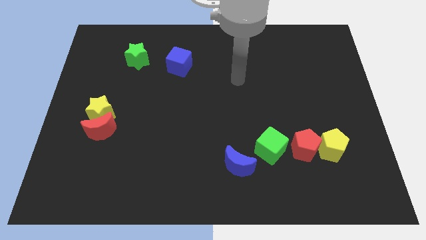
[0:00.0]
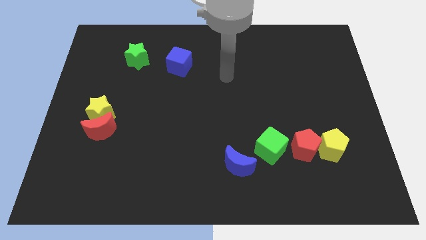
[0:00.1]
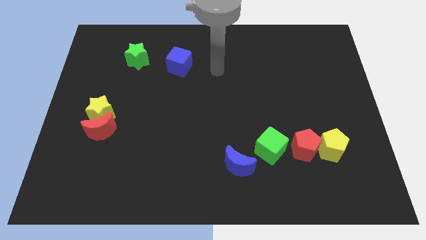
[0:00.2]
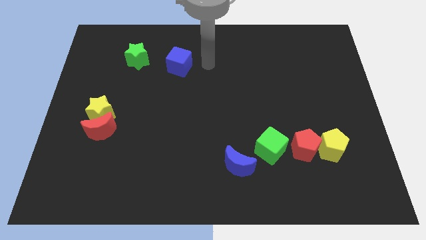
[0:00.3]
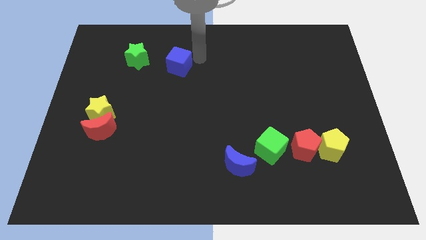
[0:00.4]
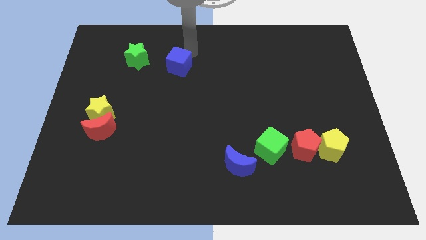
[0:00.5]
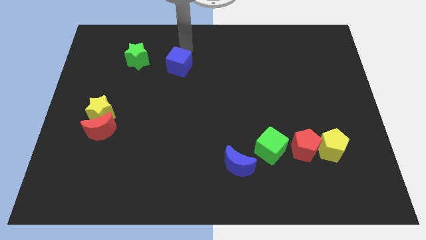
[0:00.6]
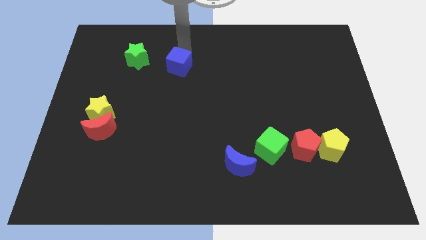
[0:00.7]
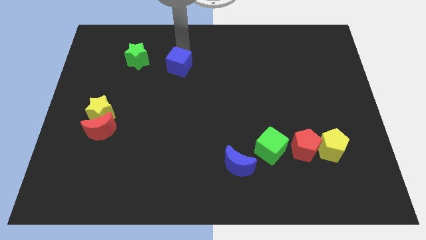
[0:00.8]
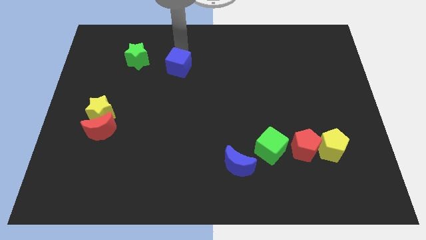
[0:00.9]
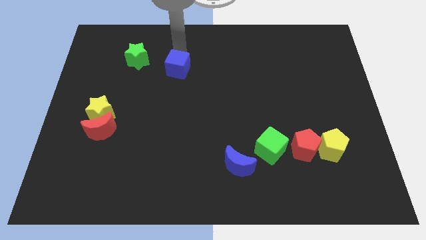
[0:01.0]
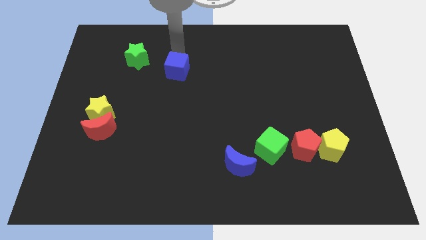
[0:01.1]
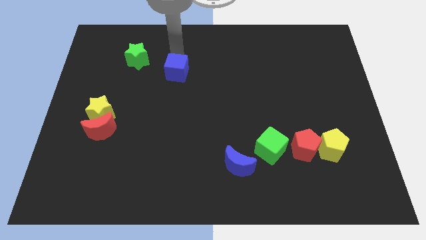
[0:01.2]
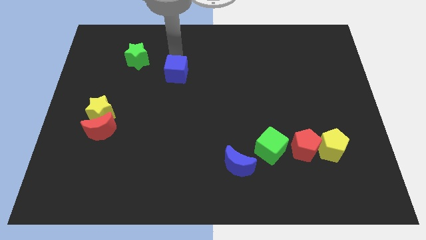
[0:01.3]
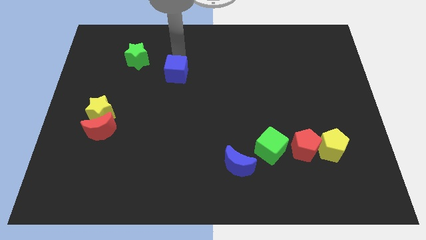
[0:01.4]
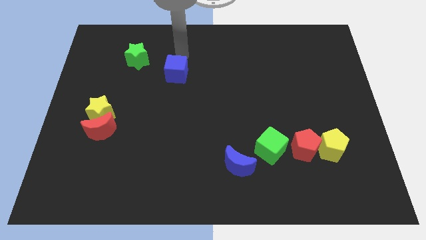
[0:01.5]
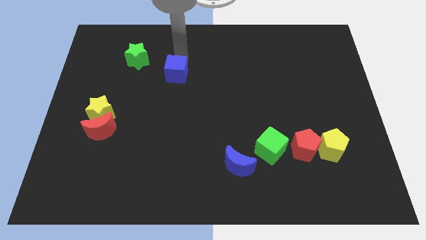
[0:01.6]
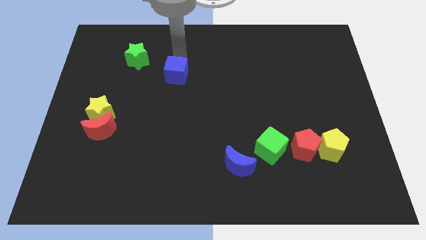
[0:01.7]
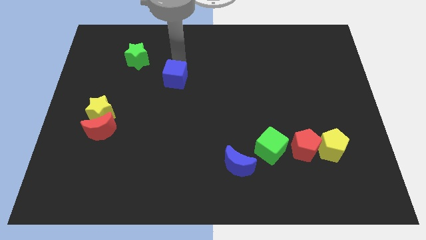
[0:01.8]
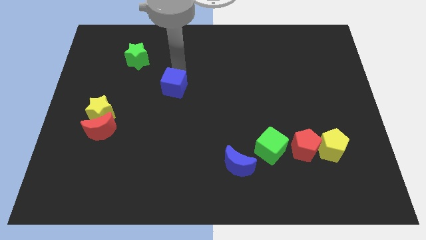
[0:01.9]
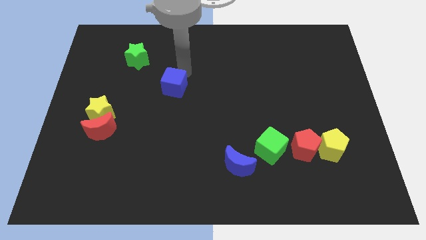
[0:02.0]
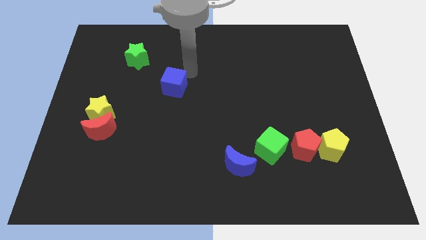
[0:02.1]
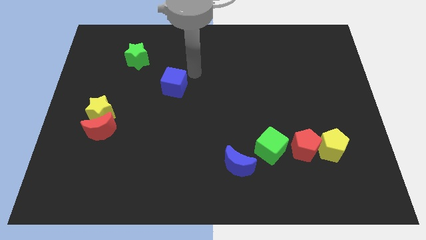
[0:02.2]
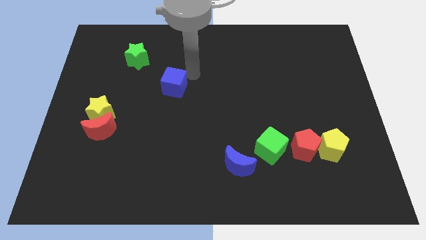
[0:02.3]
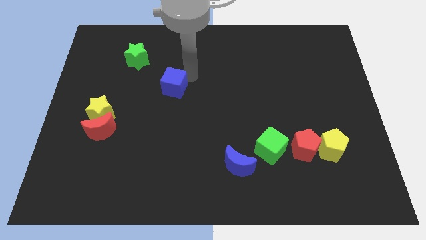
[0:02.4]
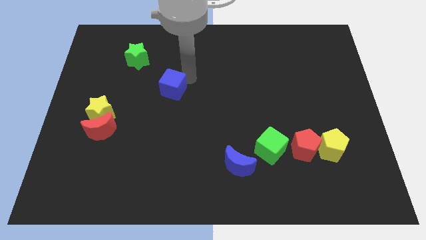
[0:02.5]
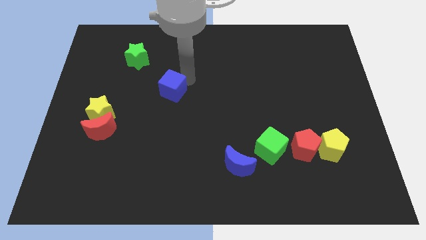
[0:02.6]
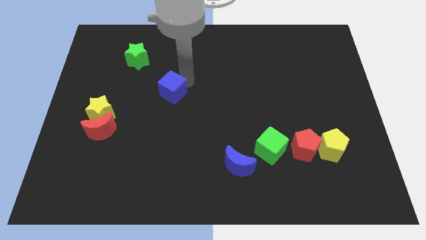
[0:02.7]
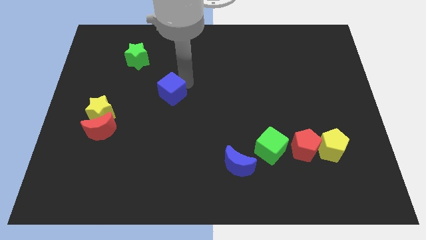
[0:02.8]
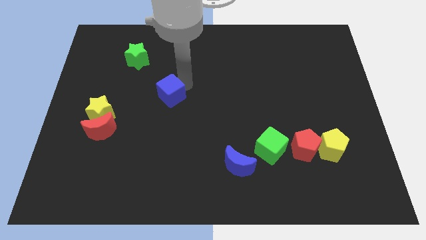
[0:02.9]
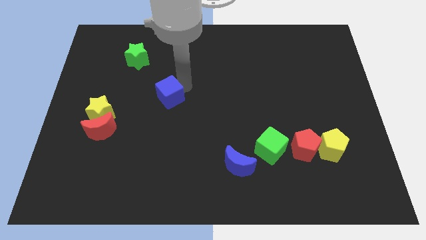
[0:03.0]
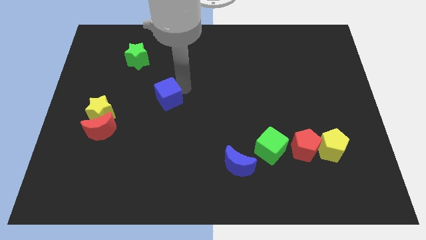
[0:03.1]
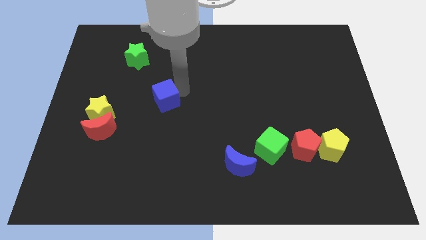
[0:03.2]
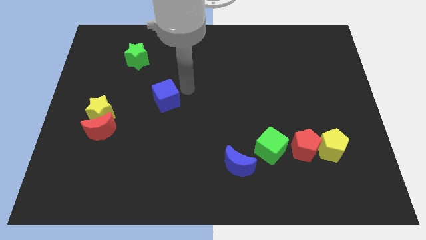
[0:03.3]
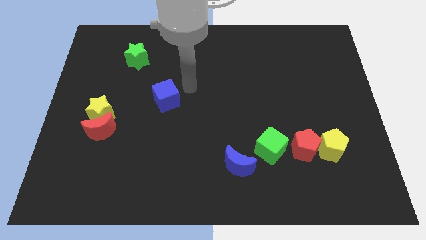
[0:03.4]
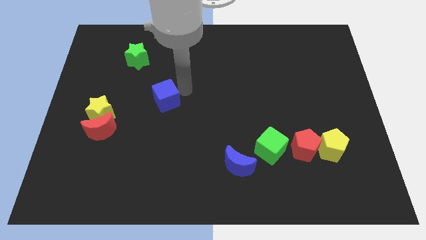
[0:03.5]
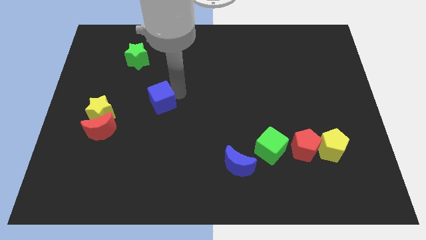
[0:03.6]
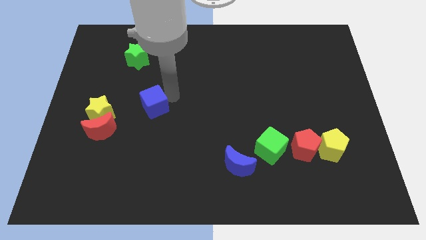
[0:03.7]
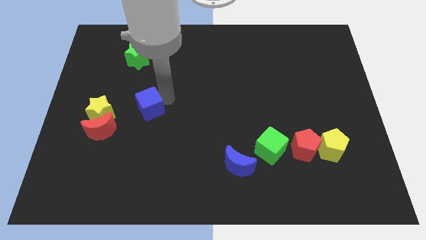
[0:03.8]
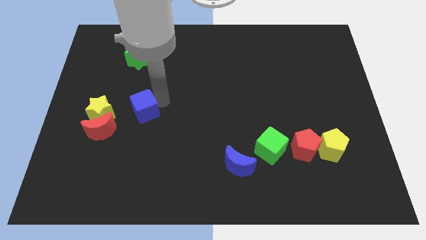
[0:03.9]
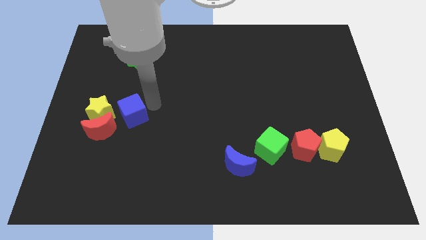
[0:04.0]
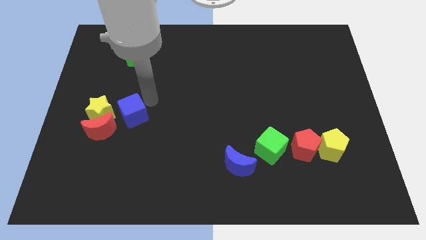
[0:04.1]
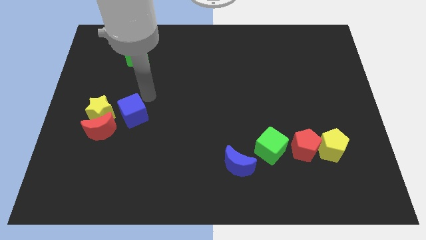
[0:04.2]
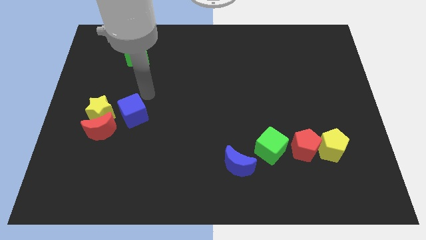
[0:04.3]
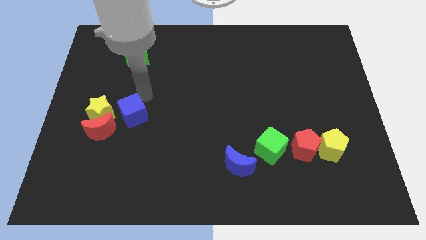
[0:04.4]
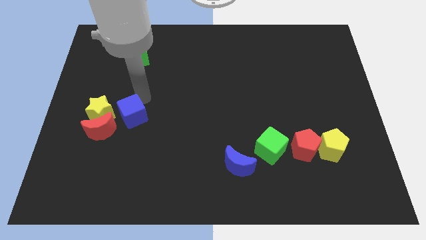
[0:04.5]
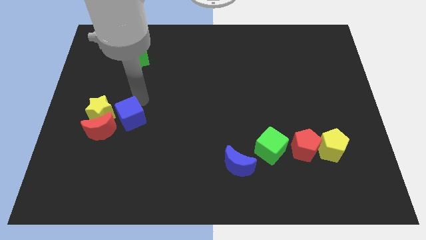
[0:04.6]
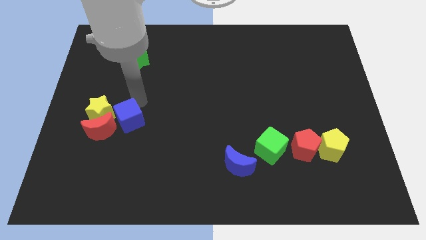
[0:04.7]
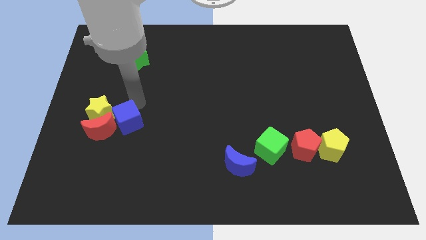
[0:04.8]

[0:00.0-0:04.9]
move the blue cube next to the red moon

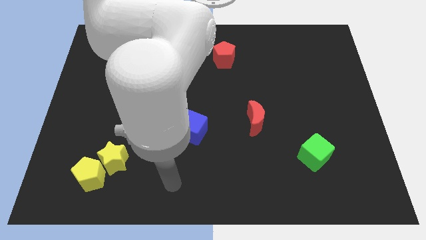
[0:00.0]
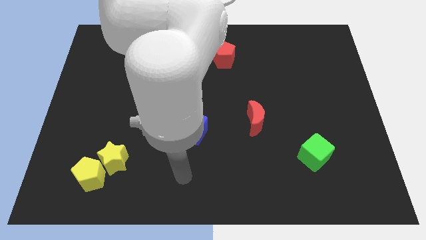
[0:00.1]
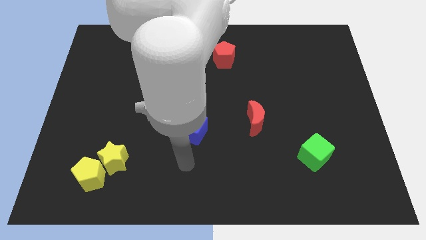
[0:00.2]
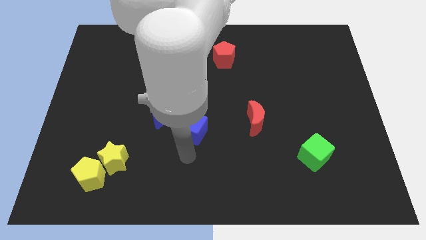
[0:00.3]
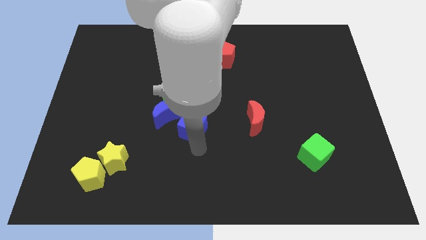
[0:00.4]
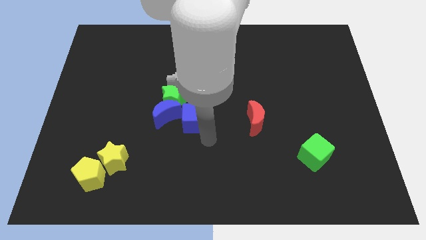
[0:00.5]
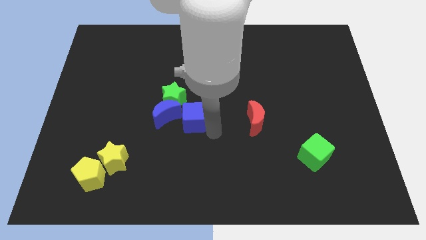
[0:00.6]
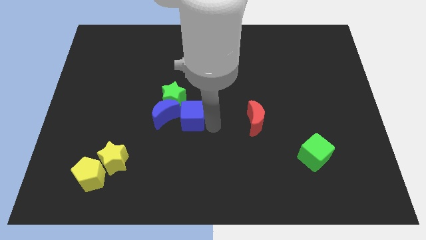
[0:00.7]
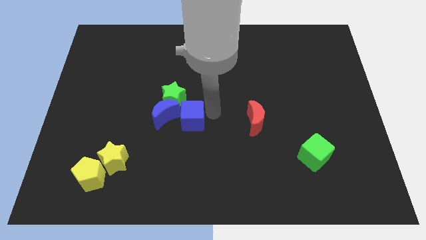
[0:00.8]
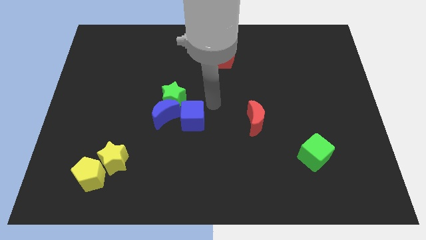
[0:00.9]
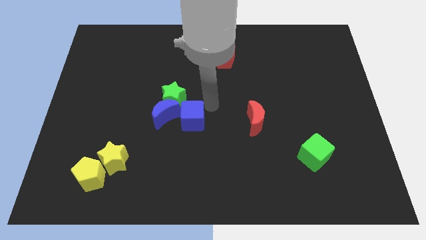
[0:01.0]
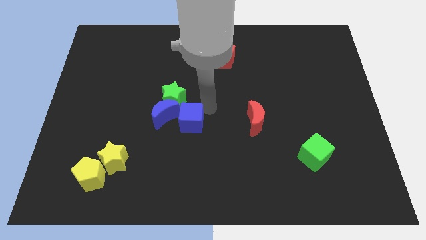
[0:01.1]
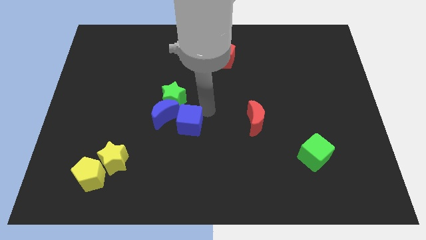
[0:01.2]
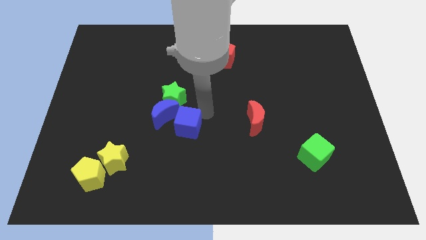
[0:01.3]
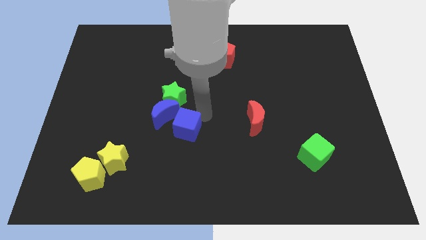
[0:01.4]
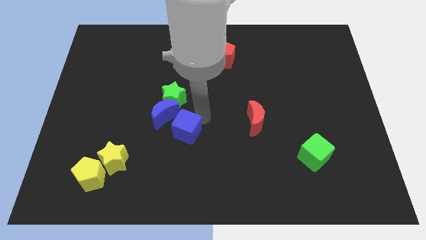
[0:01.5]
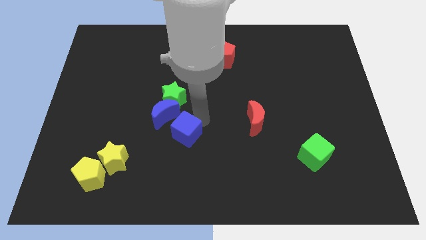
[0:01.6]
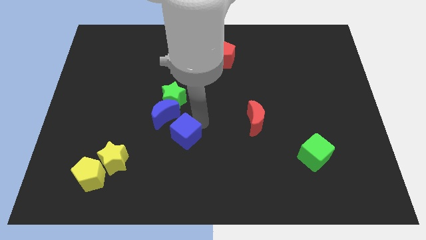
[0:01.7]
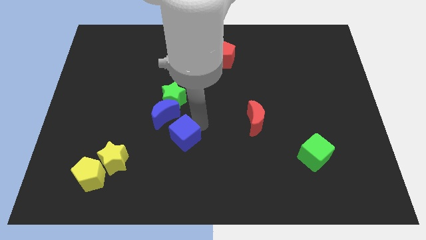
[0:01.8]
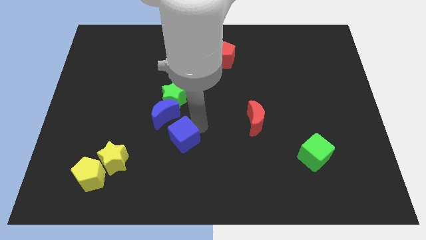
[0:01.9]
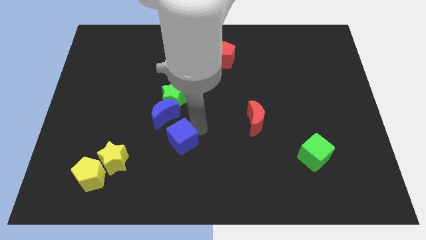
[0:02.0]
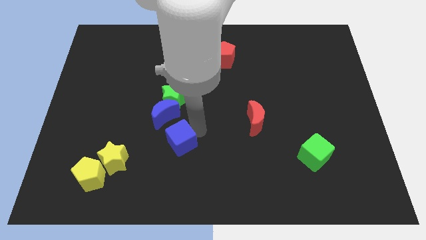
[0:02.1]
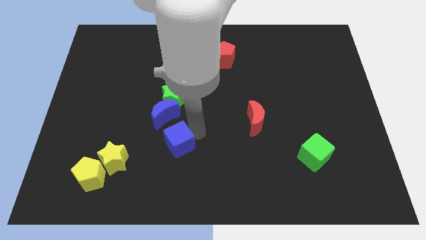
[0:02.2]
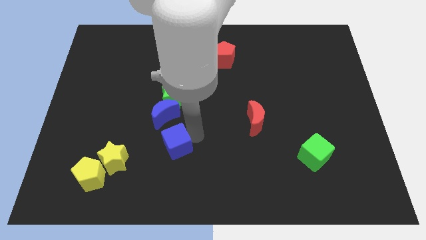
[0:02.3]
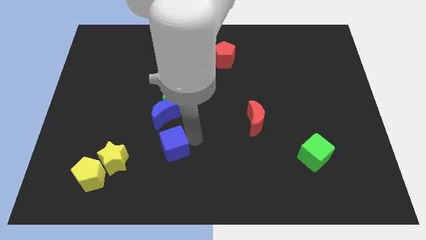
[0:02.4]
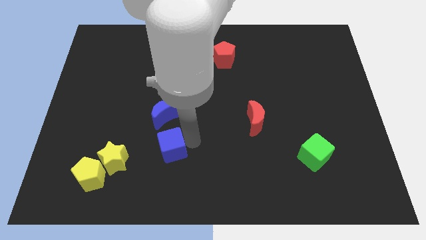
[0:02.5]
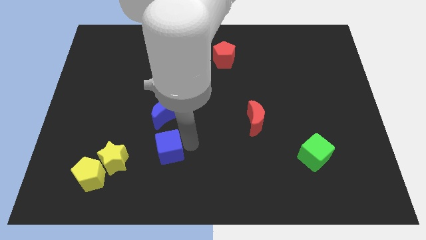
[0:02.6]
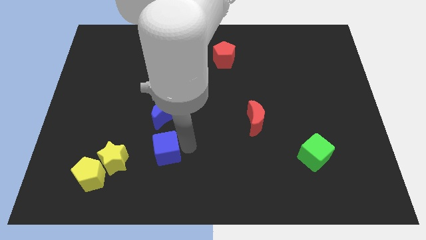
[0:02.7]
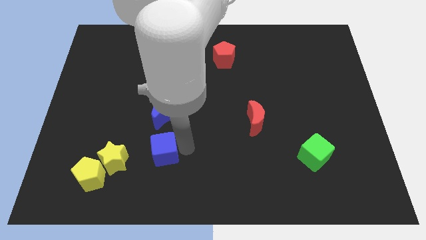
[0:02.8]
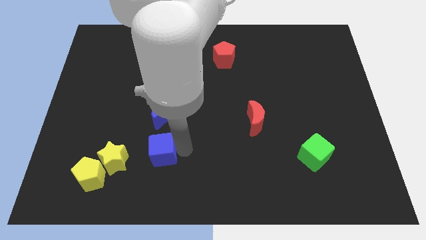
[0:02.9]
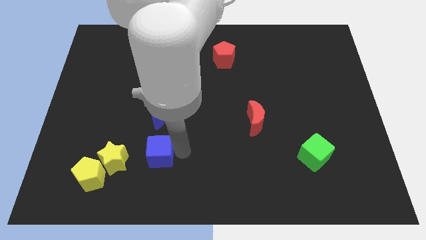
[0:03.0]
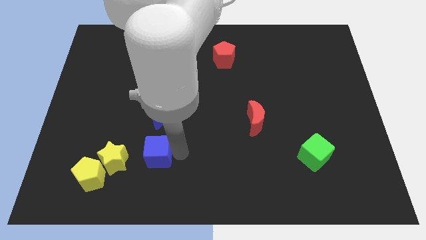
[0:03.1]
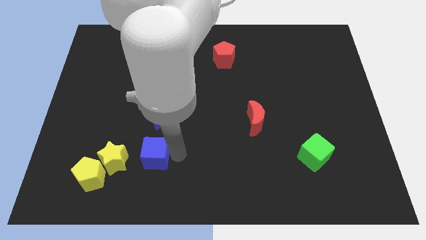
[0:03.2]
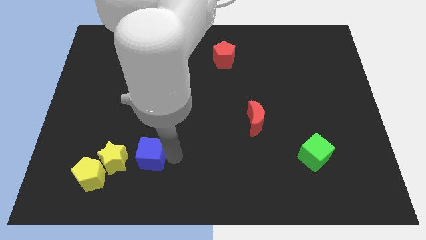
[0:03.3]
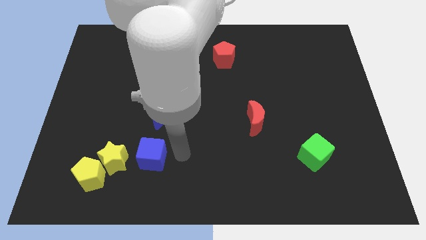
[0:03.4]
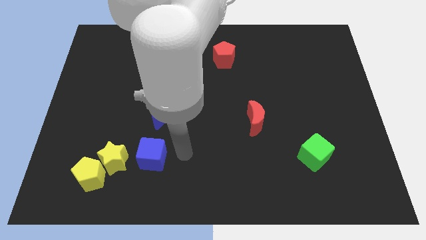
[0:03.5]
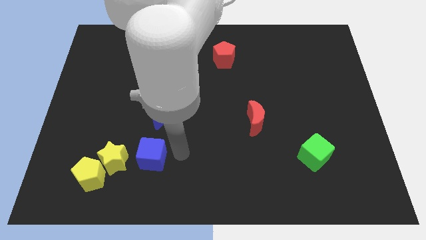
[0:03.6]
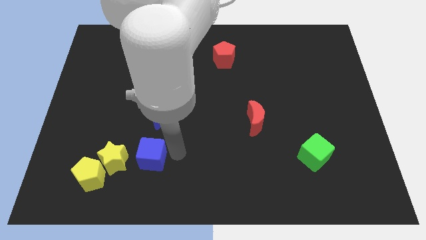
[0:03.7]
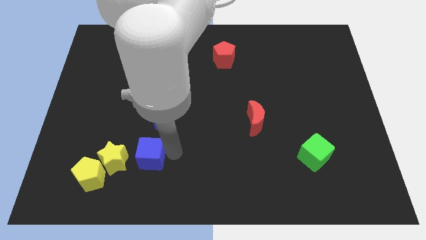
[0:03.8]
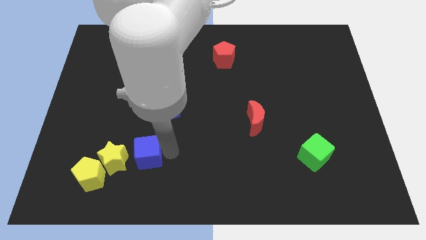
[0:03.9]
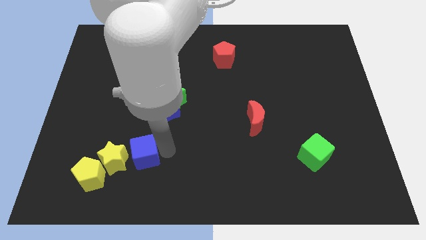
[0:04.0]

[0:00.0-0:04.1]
put the blue cube next to the yellow star
